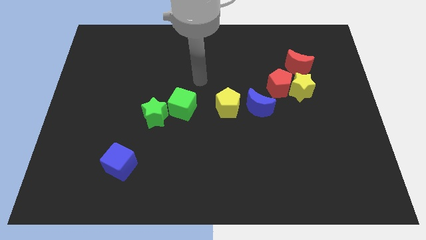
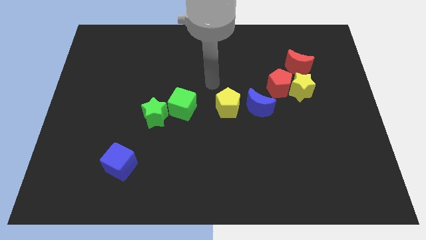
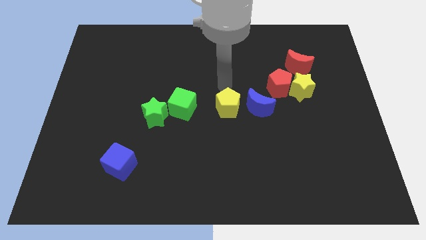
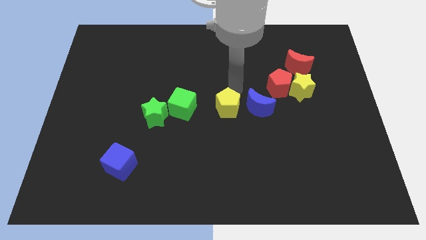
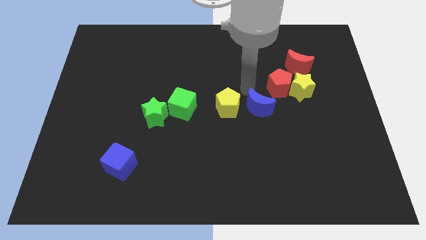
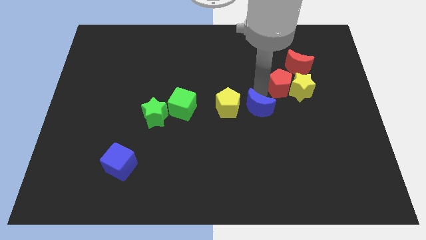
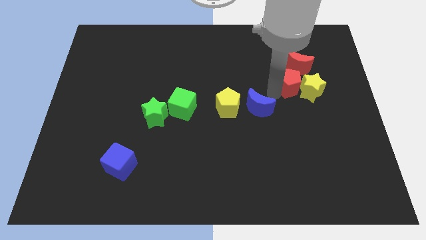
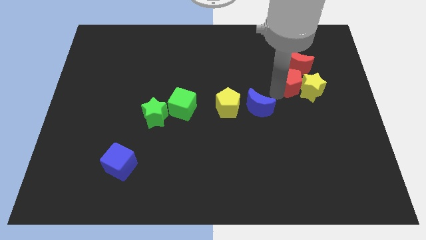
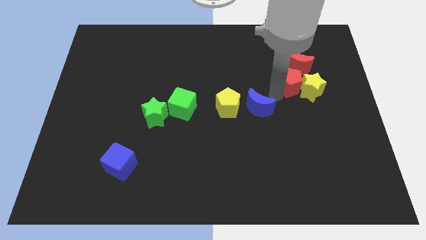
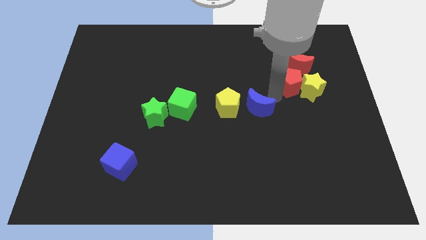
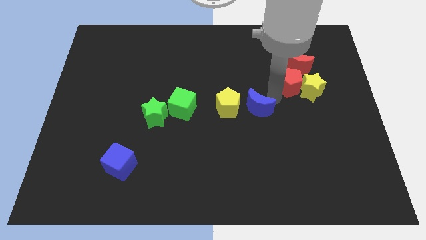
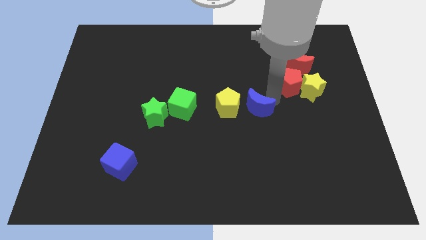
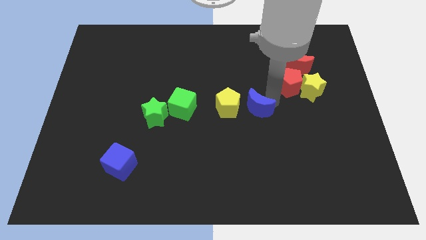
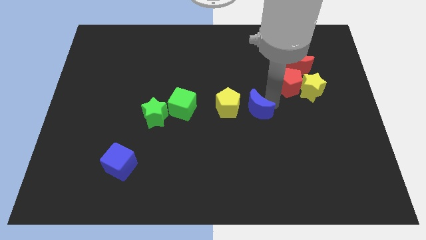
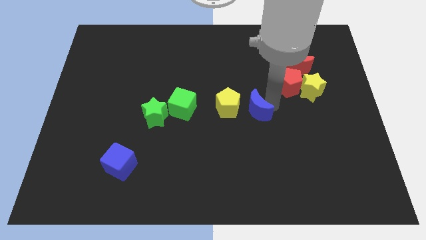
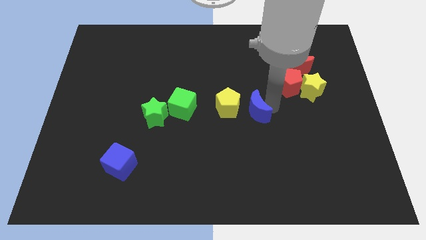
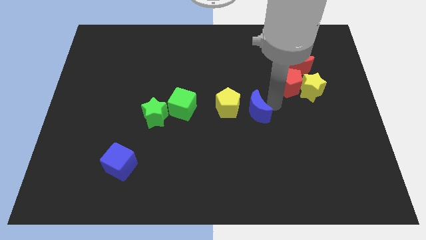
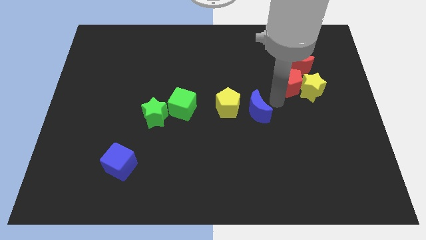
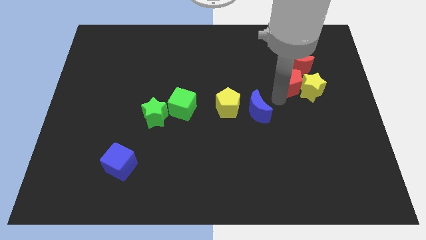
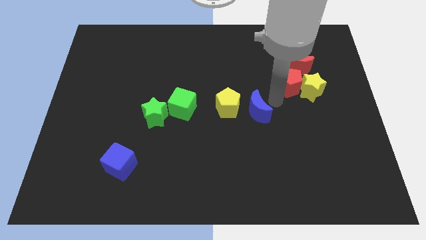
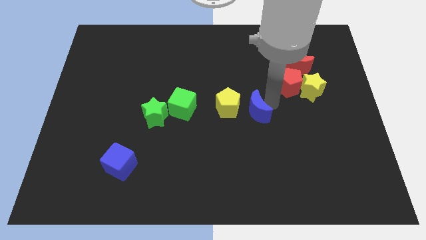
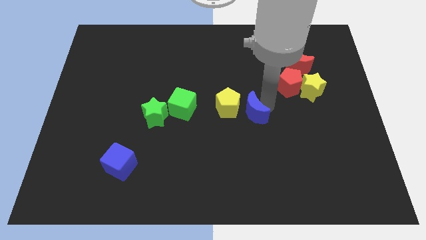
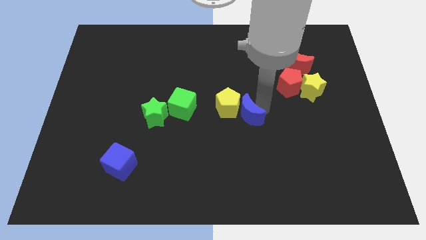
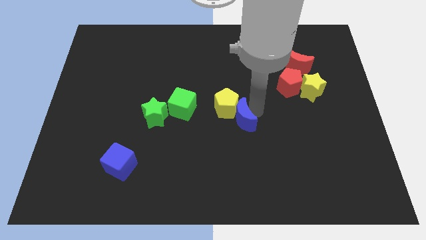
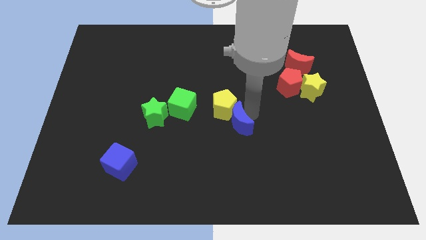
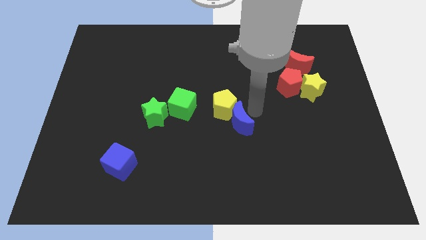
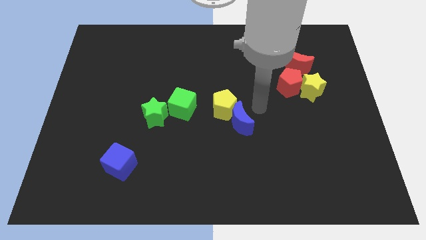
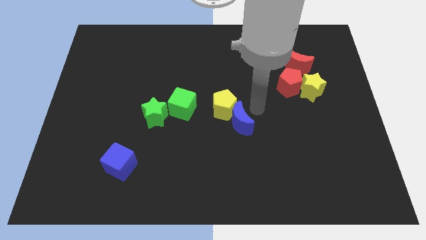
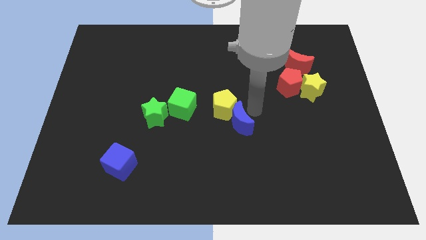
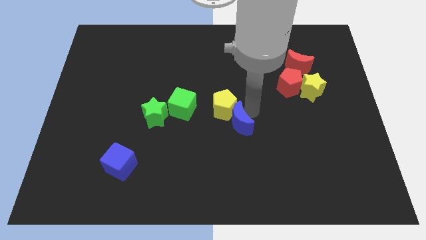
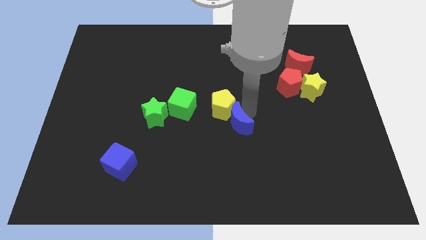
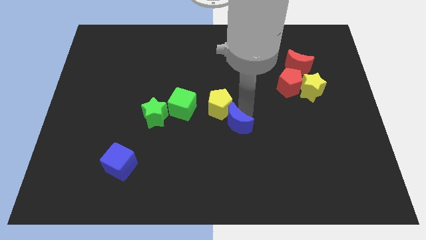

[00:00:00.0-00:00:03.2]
move the blue moon downwards and to the left diagonally a little bit

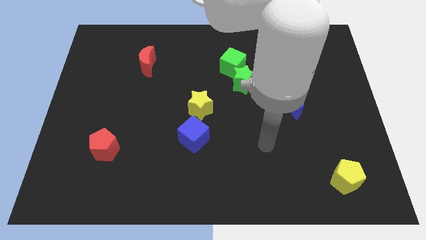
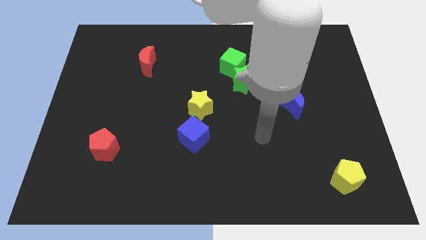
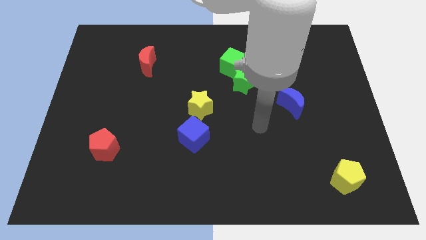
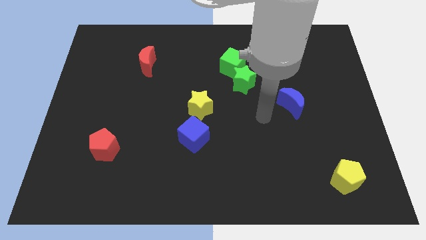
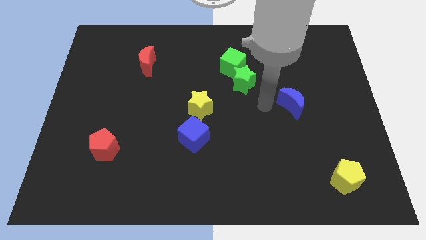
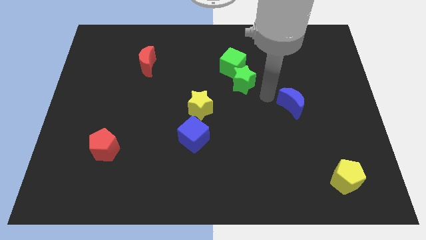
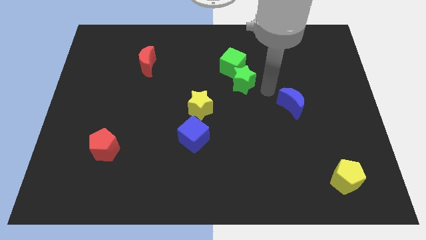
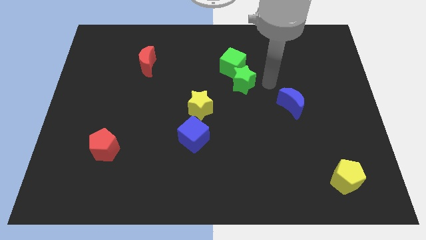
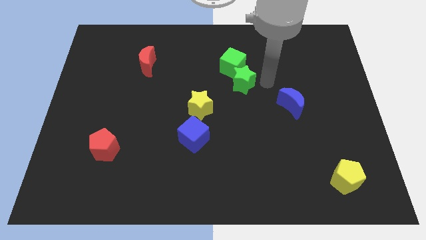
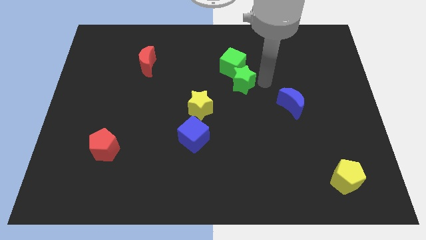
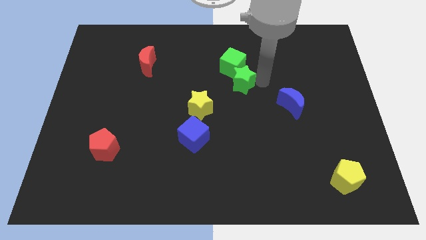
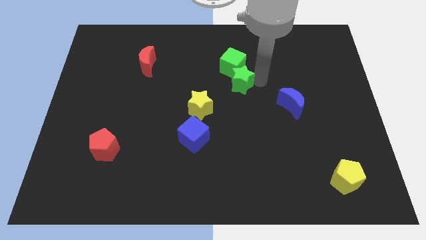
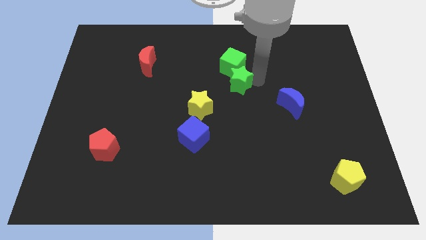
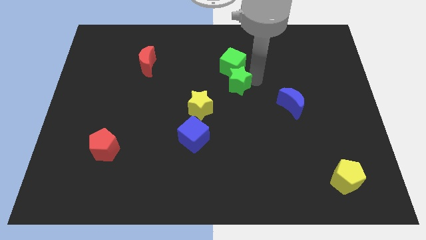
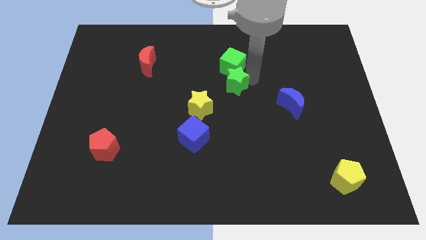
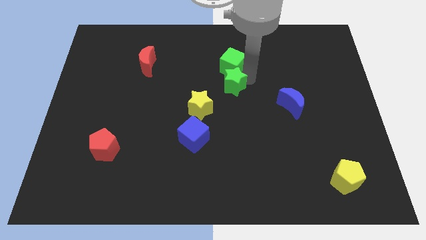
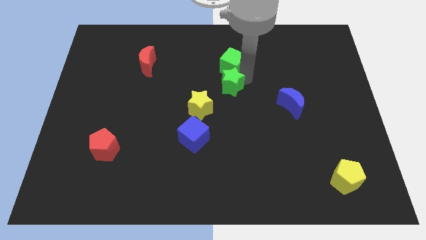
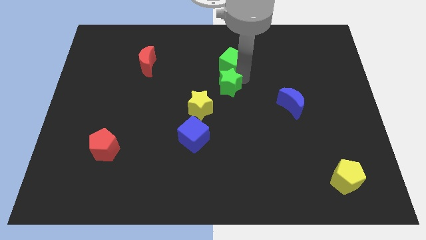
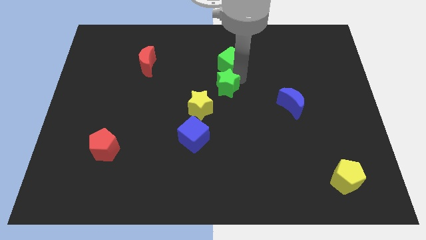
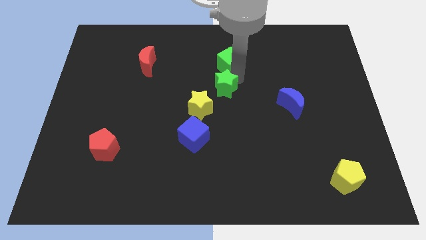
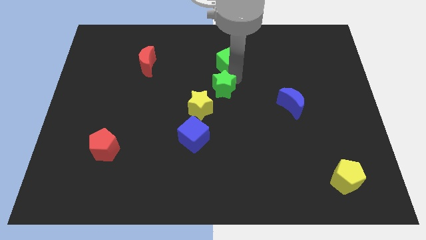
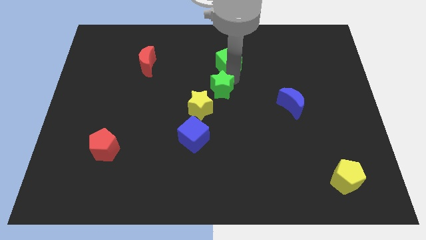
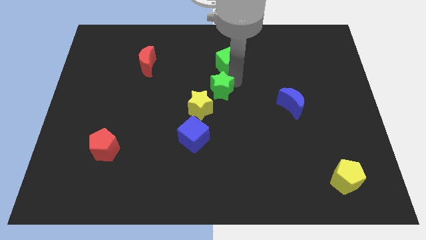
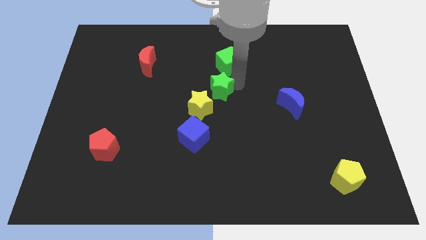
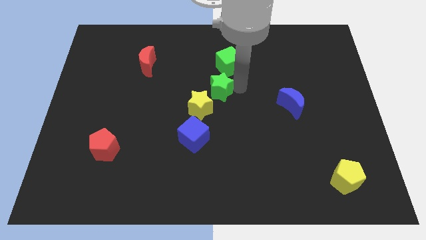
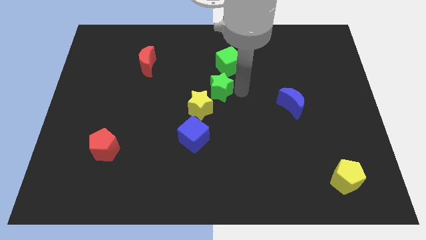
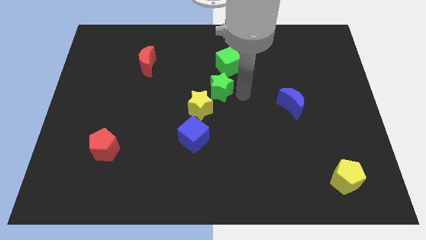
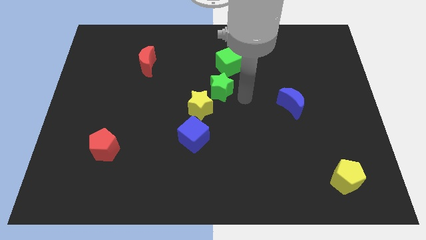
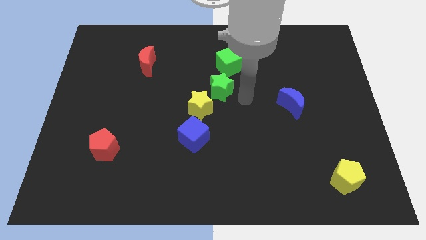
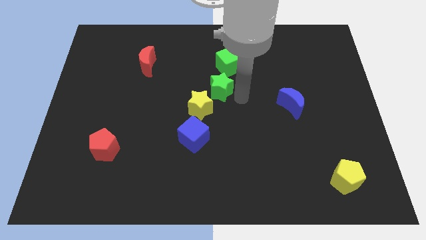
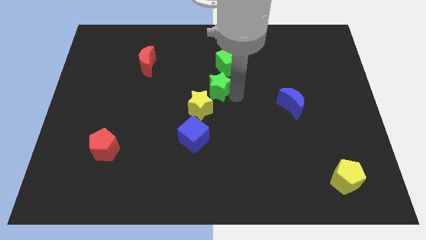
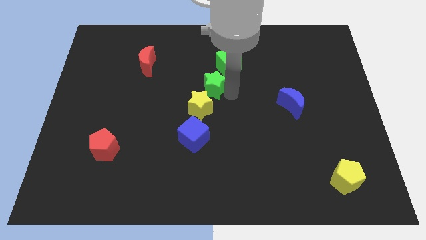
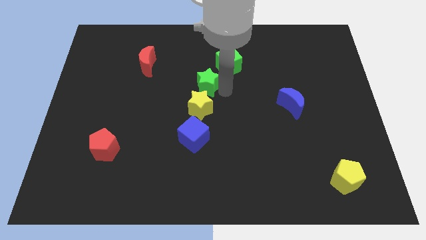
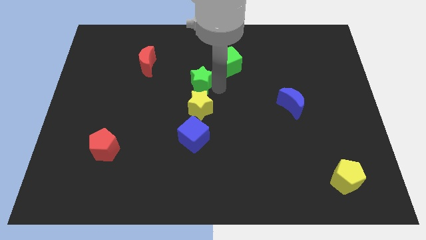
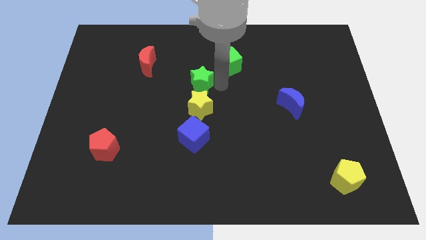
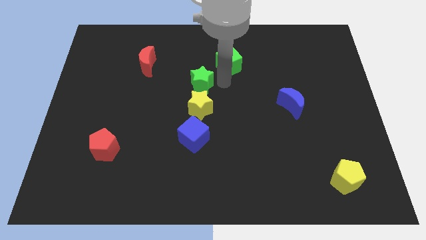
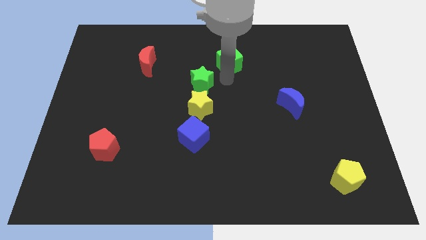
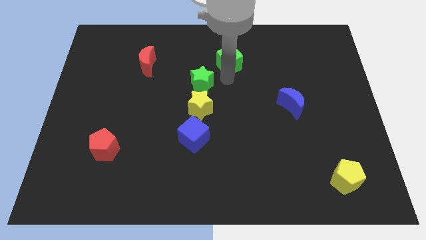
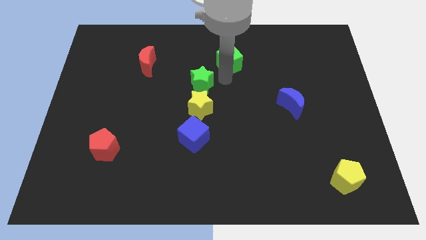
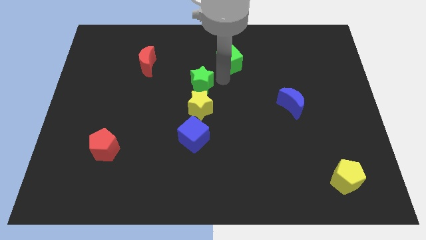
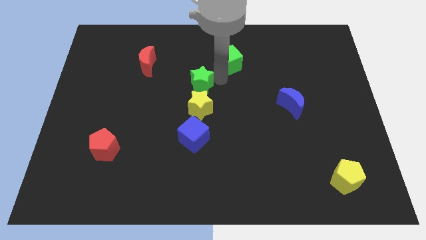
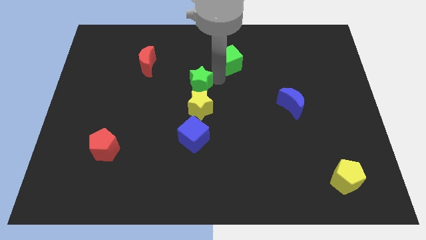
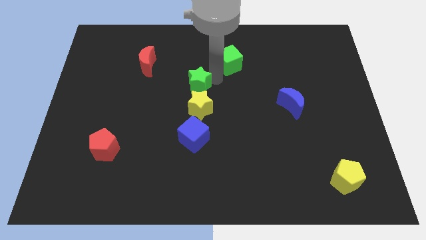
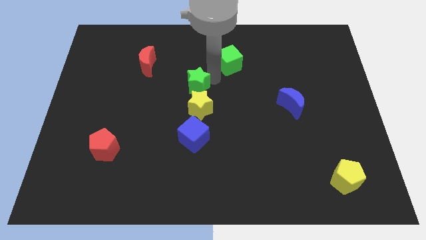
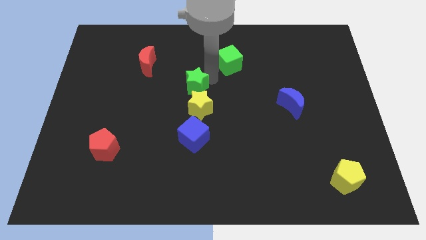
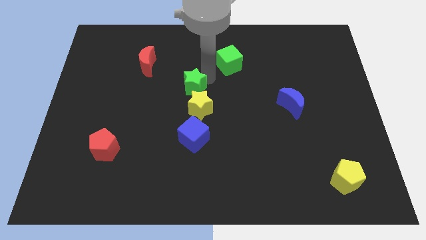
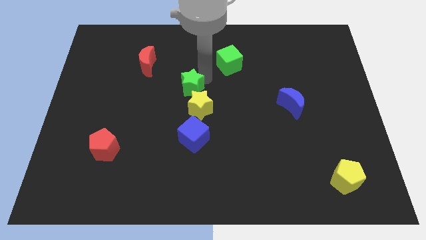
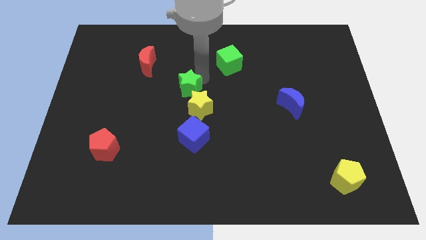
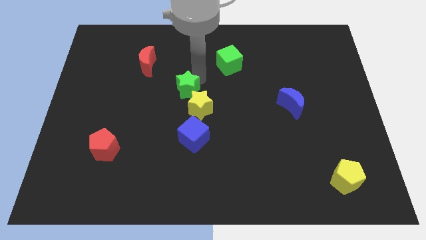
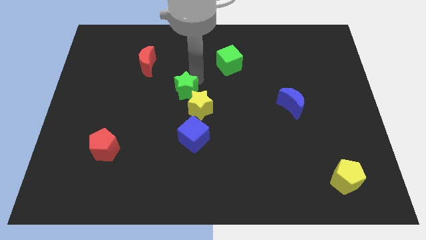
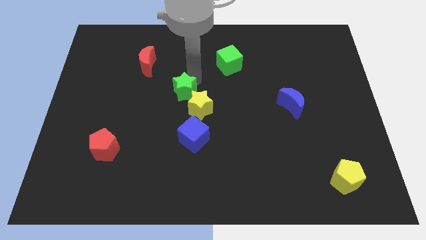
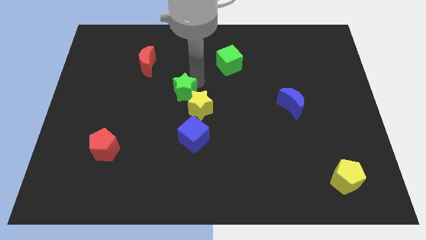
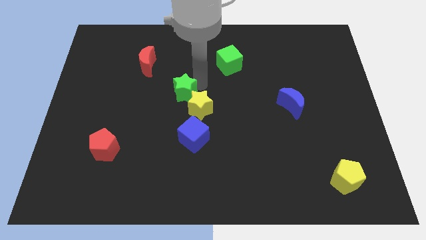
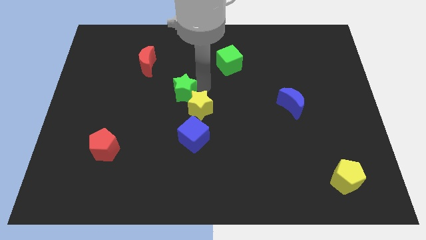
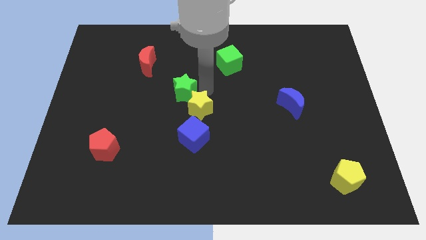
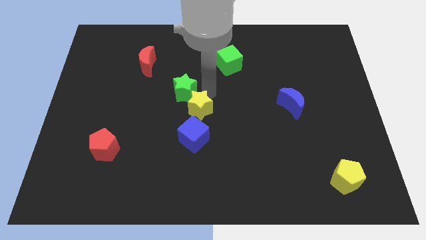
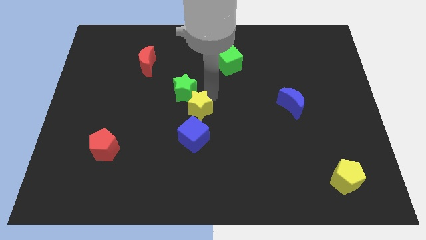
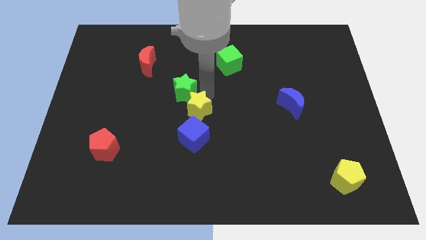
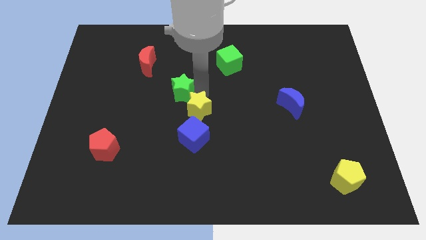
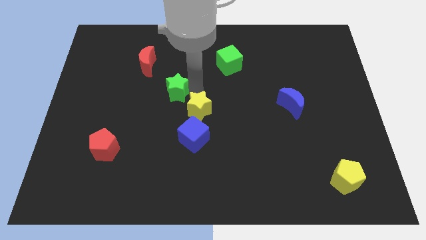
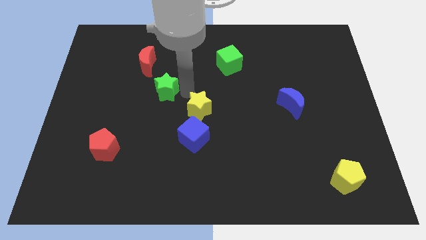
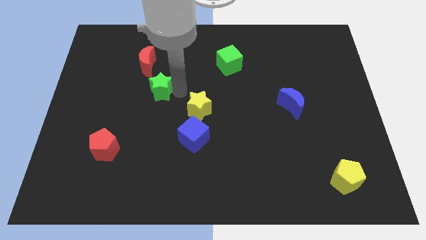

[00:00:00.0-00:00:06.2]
move the green star left
